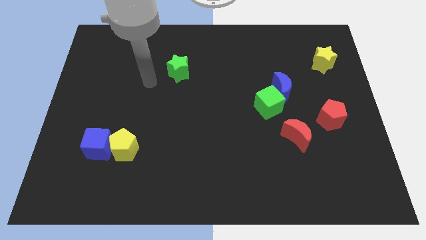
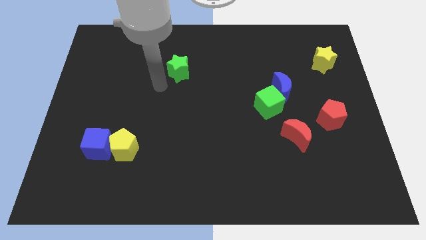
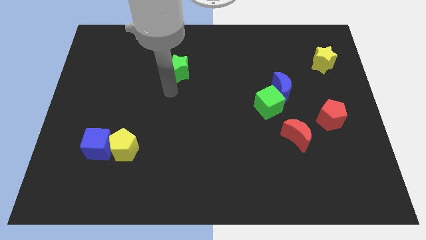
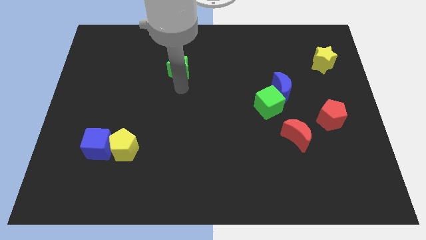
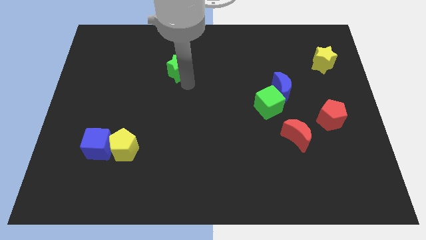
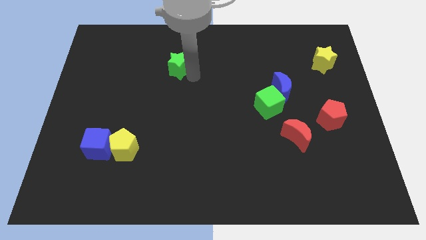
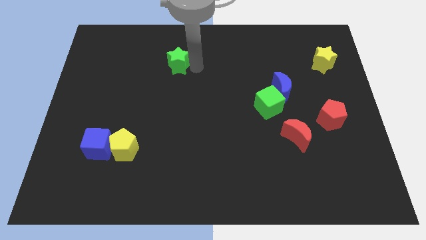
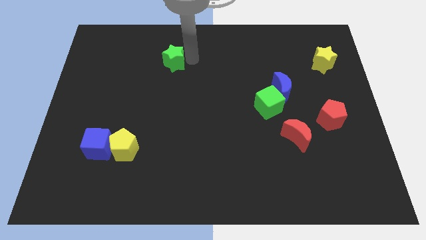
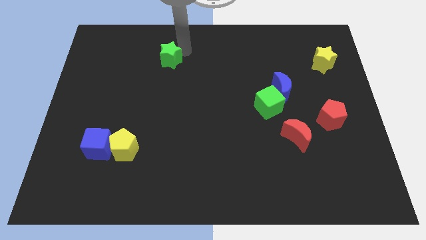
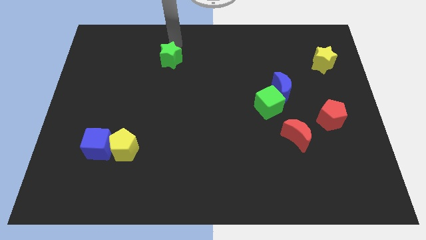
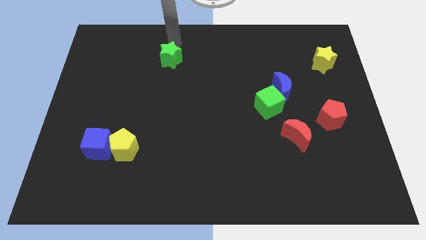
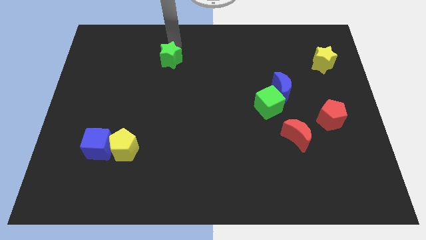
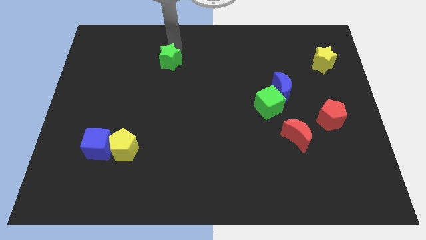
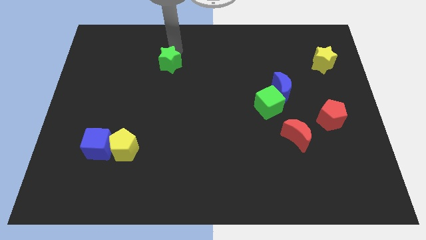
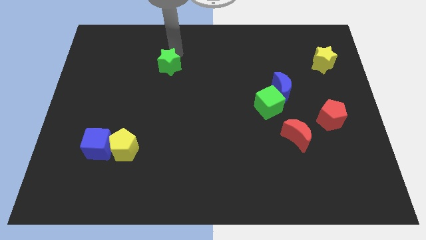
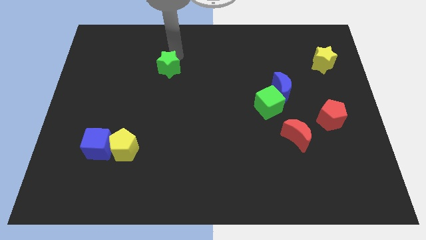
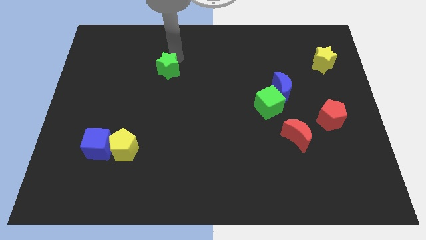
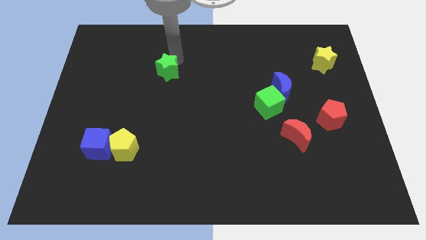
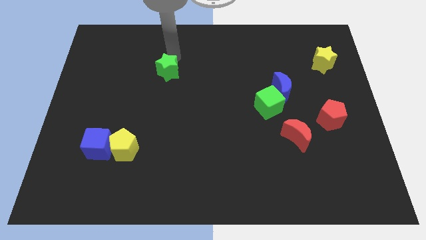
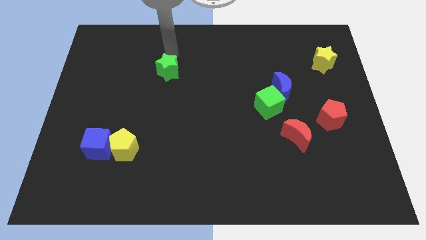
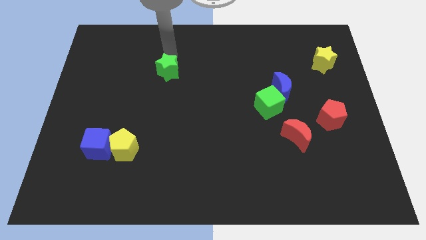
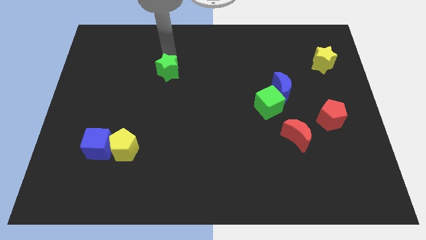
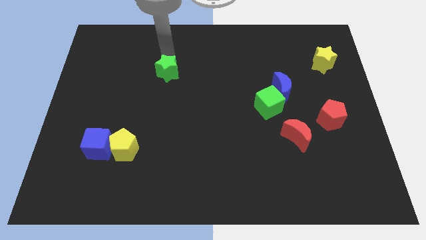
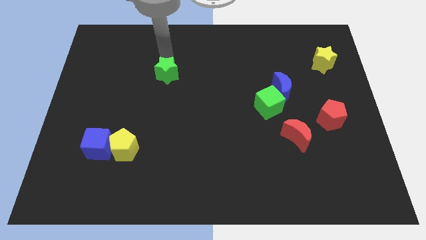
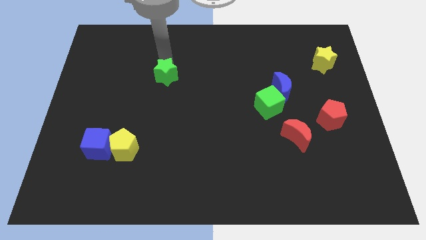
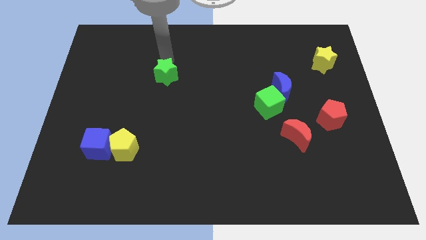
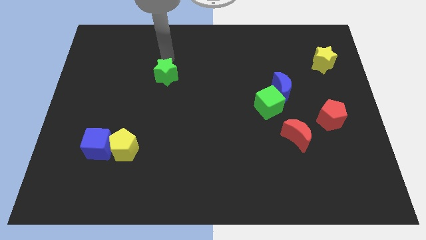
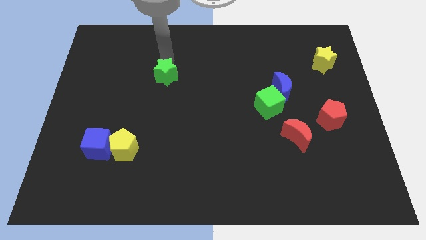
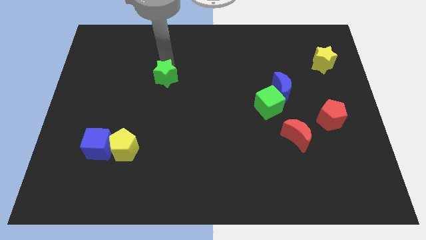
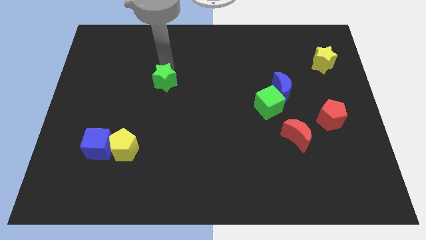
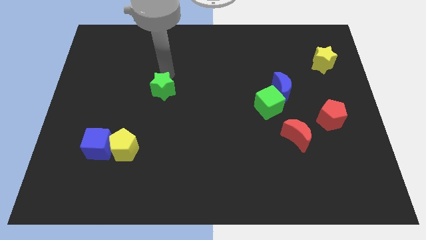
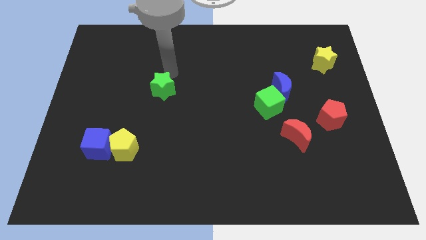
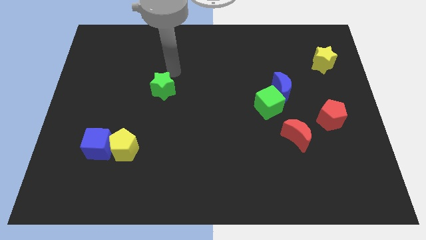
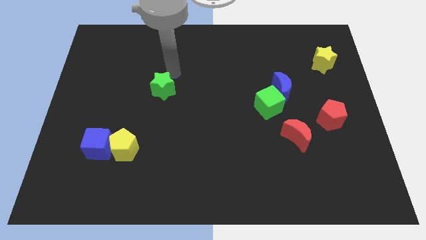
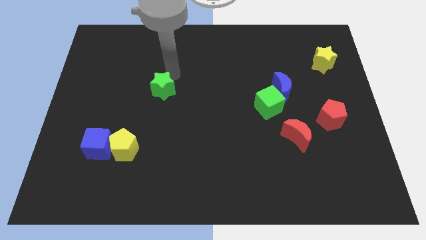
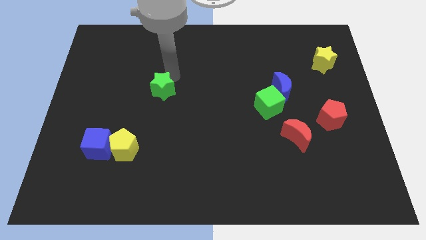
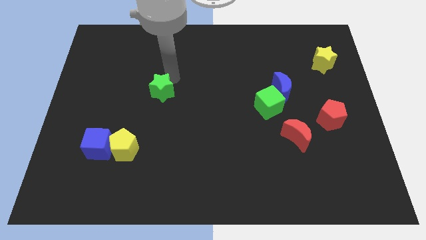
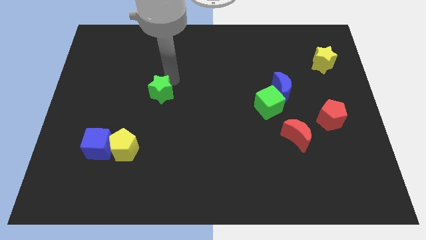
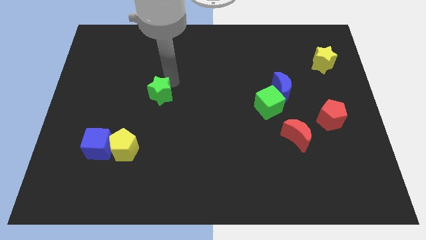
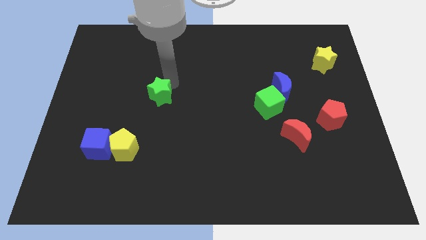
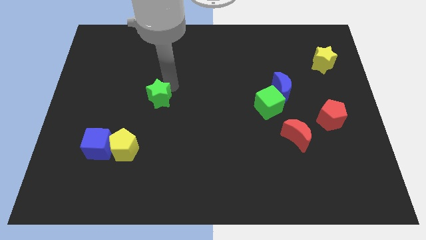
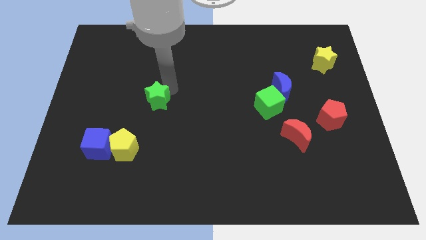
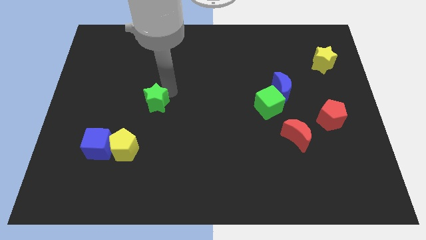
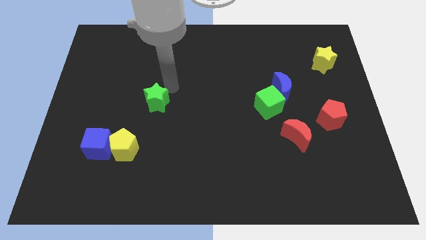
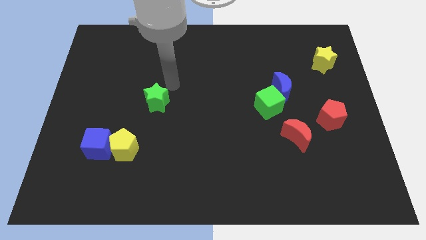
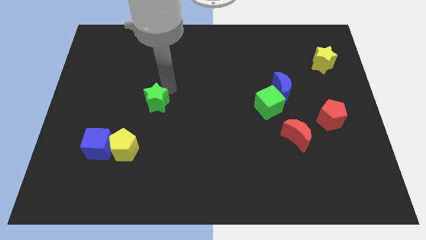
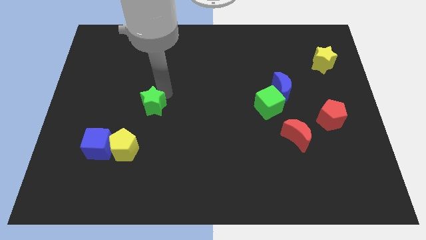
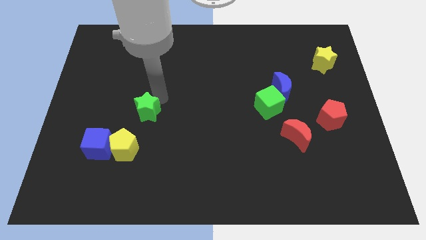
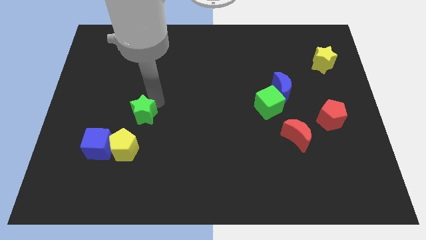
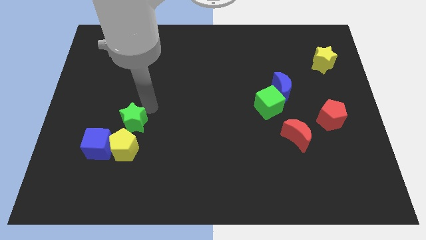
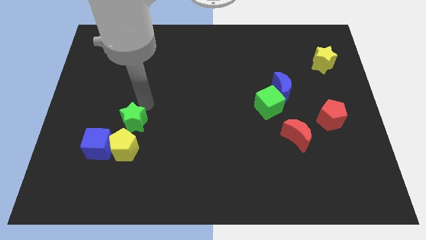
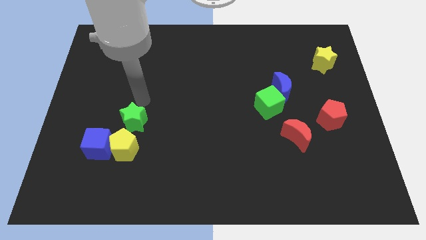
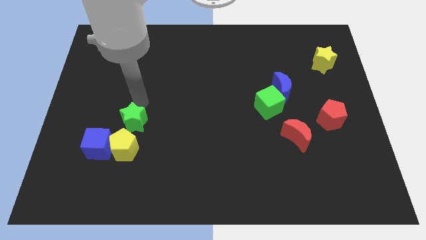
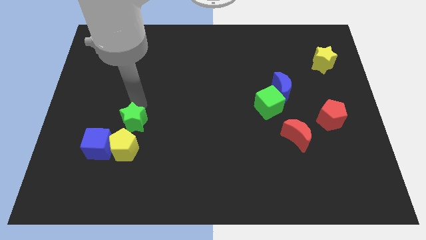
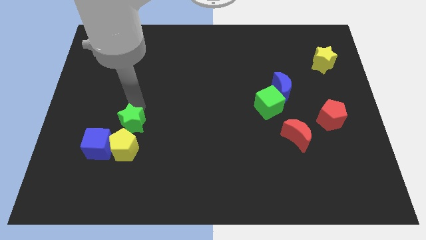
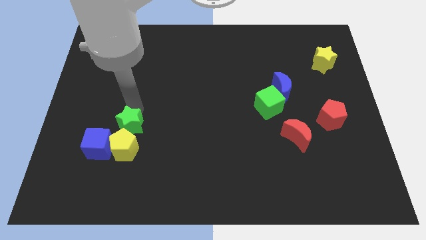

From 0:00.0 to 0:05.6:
put the green star towards the yellow pentagon

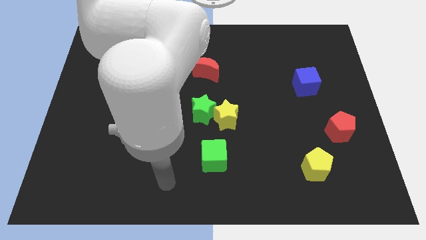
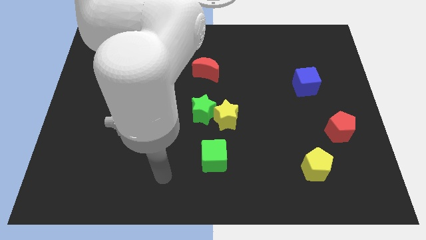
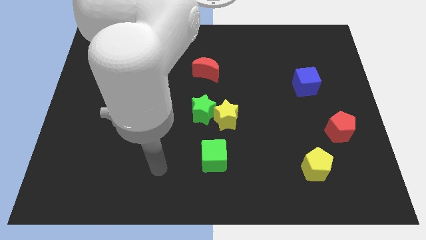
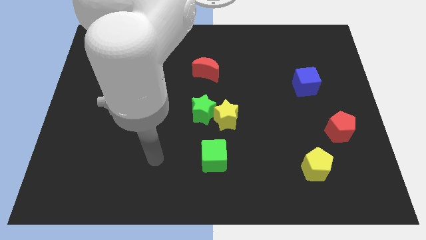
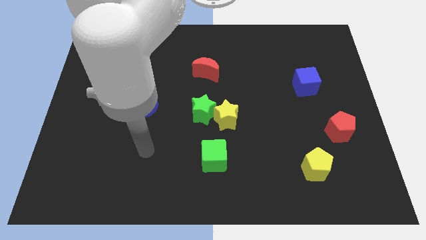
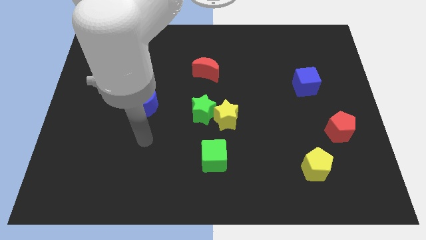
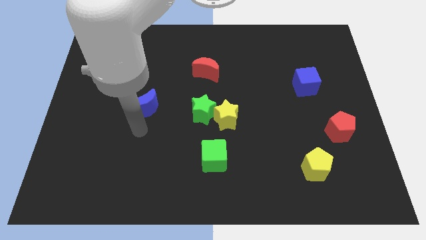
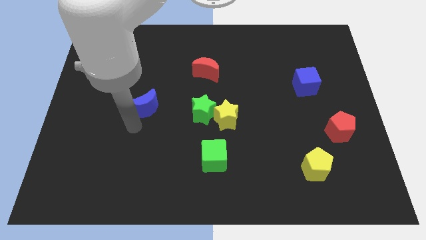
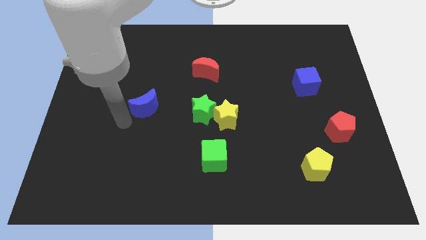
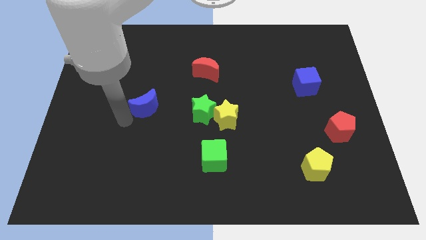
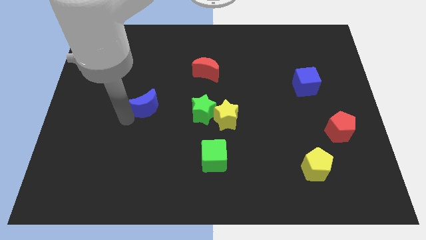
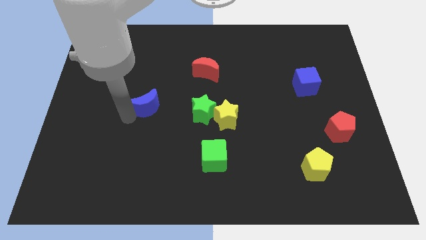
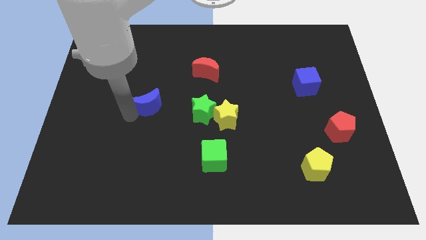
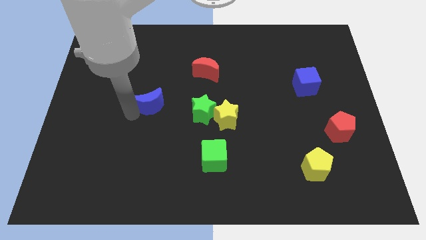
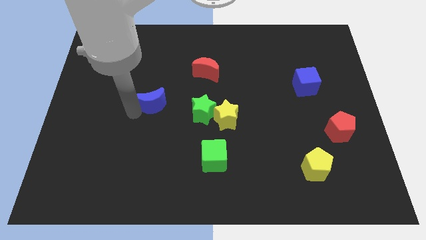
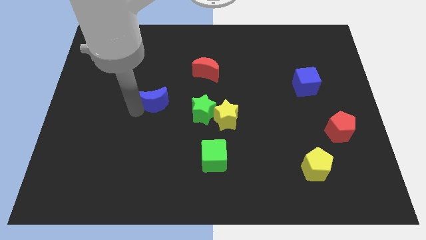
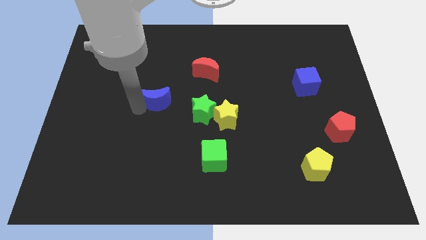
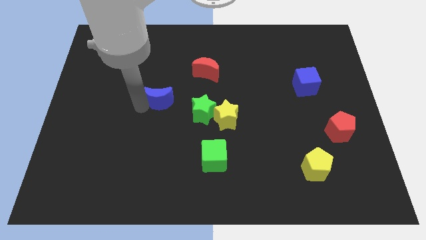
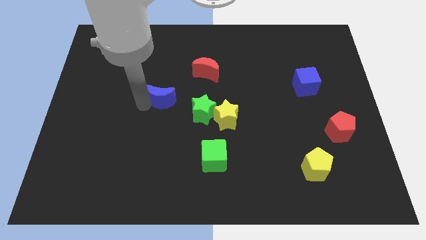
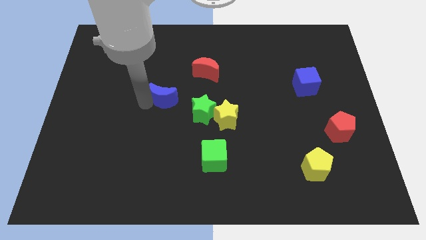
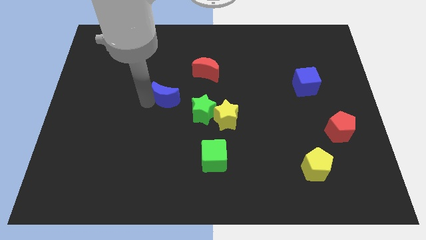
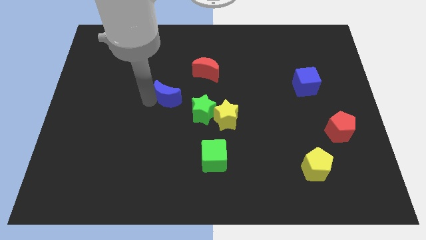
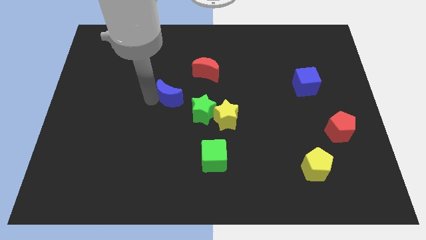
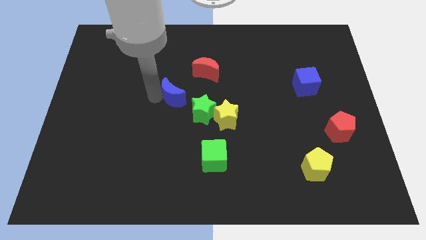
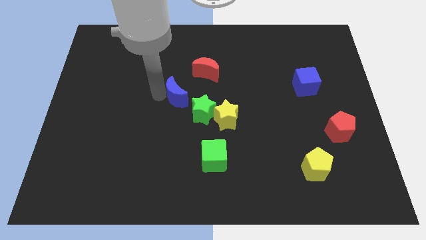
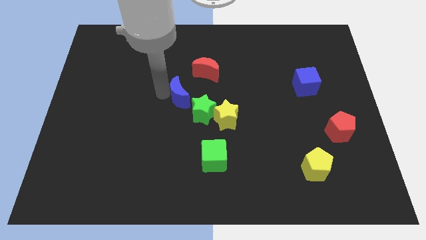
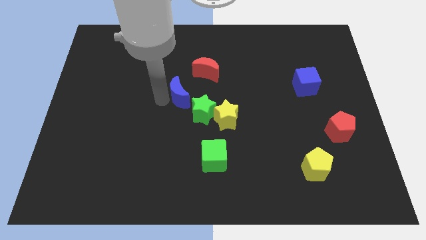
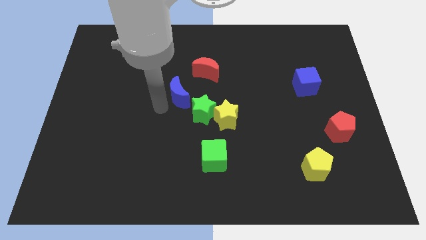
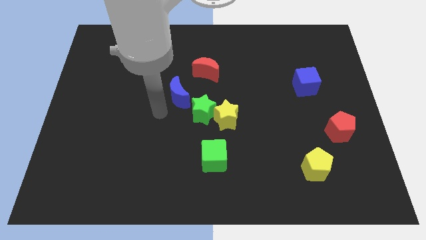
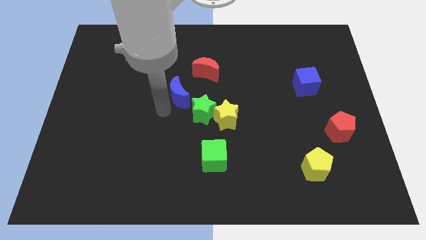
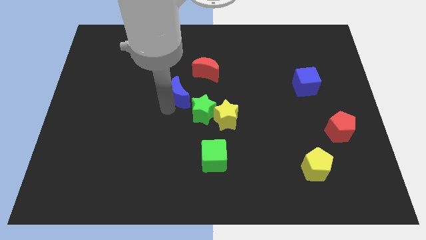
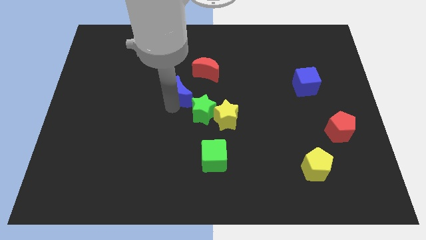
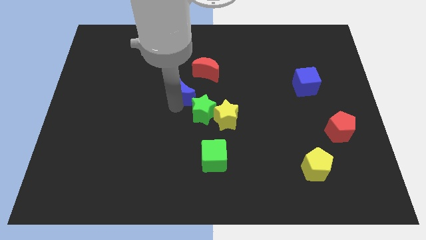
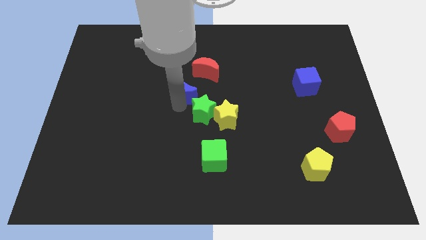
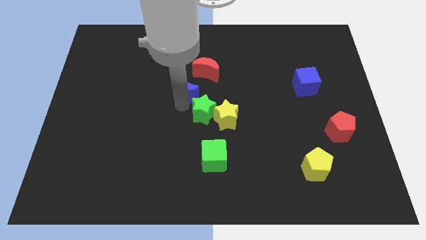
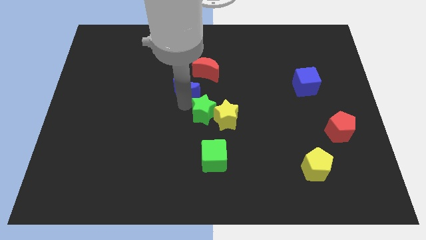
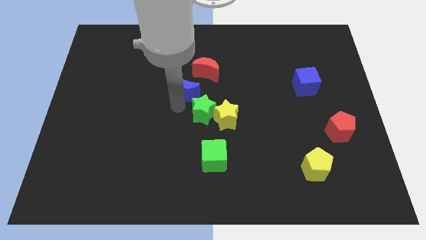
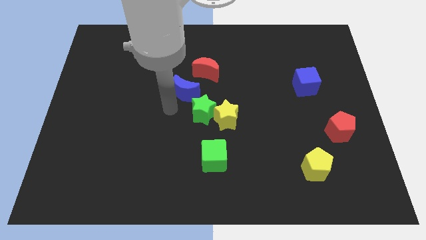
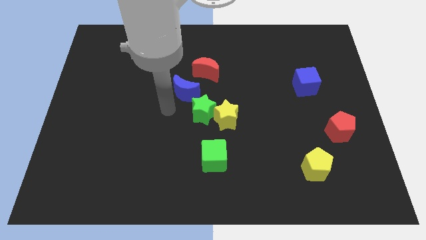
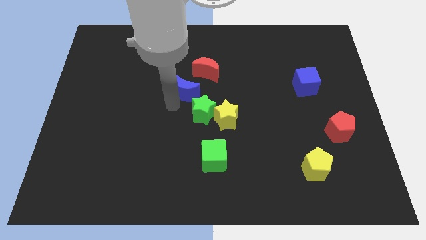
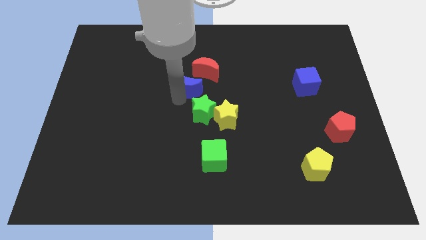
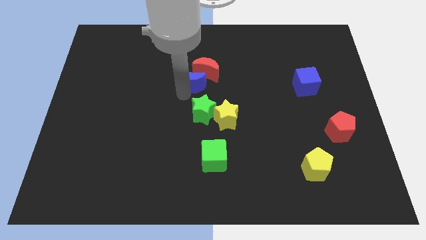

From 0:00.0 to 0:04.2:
push the blue moon to the red moon
